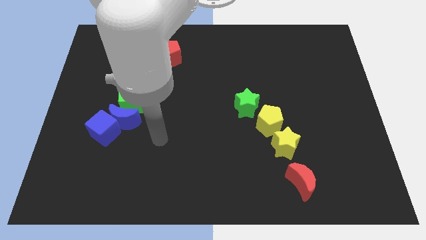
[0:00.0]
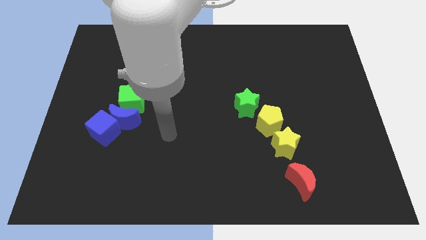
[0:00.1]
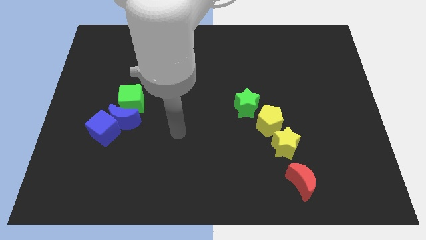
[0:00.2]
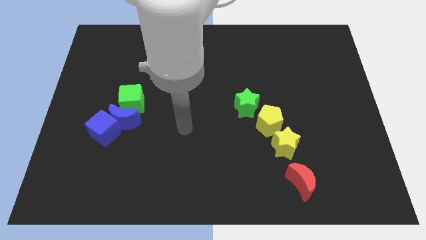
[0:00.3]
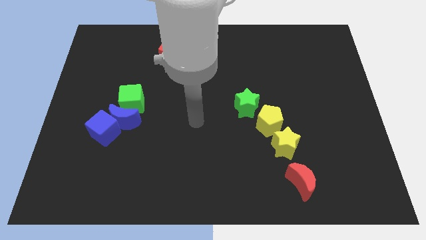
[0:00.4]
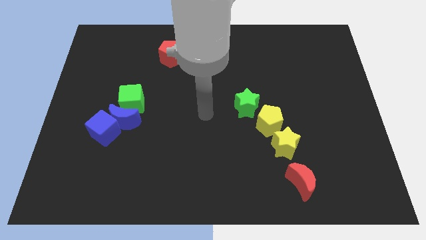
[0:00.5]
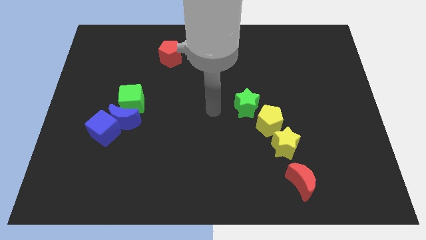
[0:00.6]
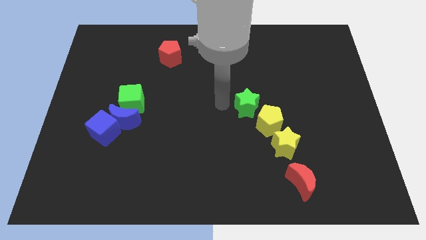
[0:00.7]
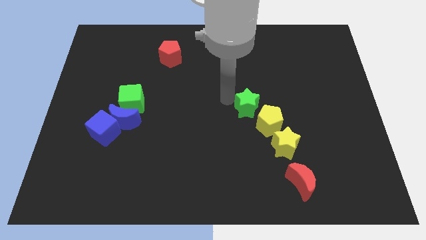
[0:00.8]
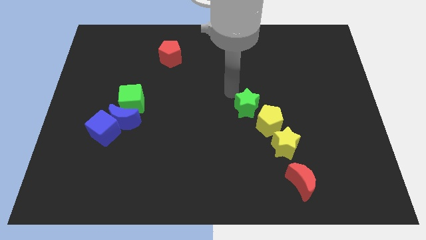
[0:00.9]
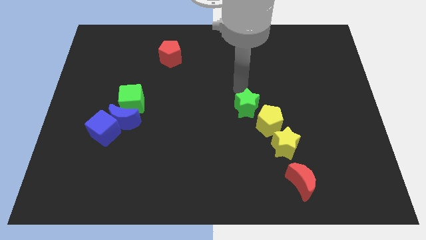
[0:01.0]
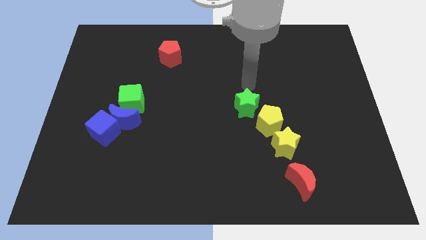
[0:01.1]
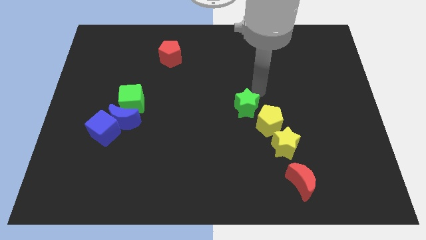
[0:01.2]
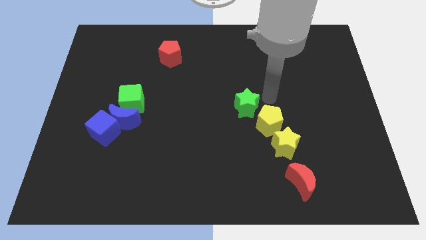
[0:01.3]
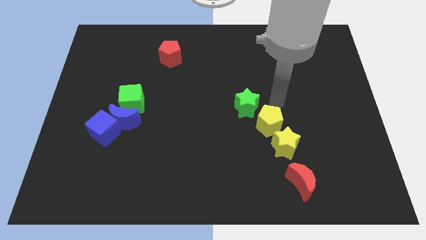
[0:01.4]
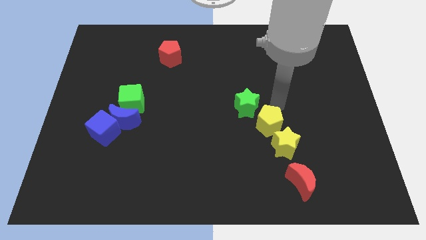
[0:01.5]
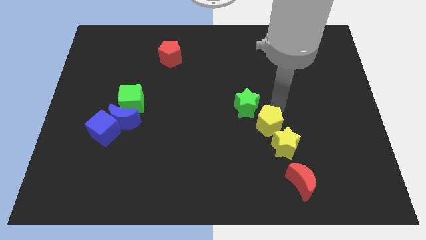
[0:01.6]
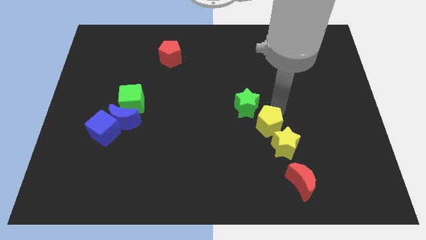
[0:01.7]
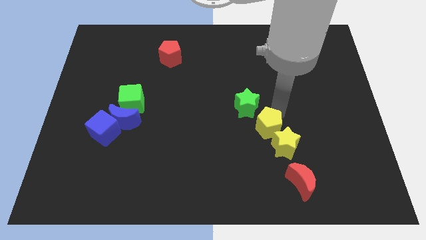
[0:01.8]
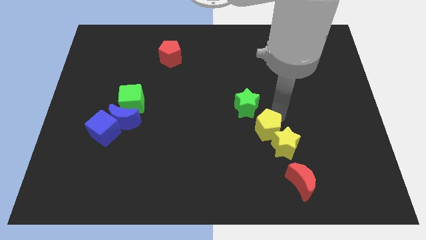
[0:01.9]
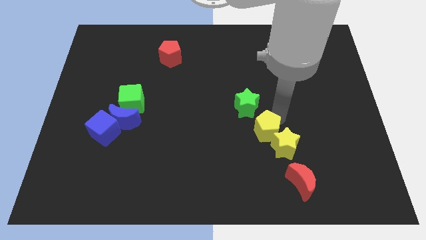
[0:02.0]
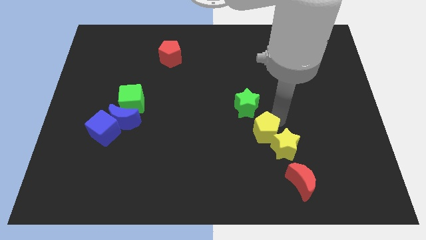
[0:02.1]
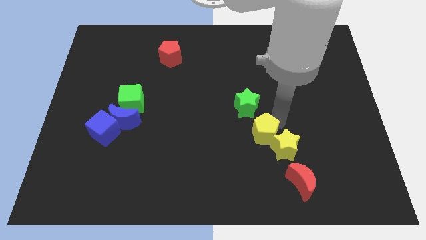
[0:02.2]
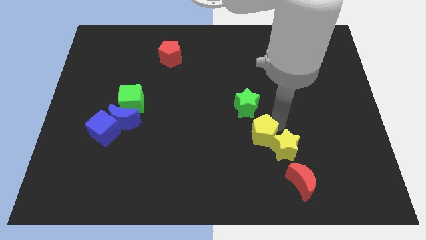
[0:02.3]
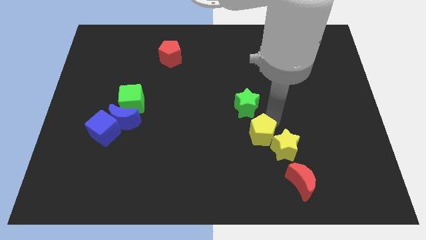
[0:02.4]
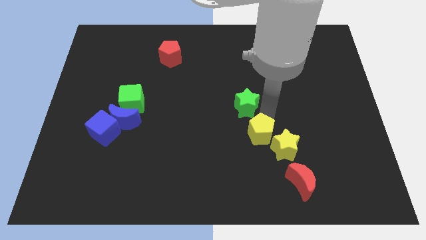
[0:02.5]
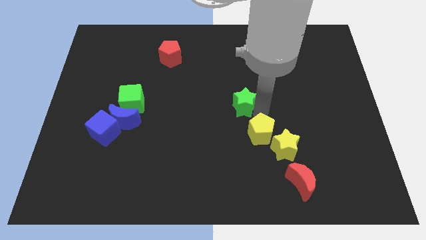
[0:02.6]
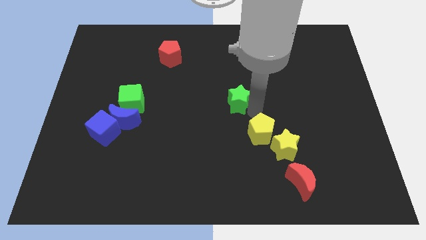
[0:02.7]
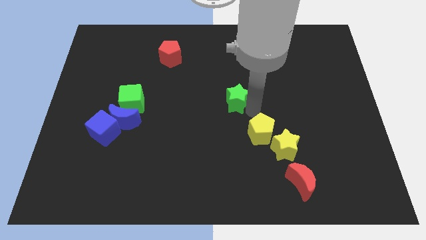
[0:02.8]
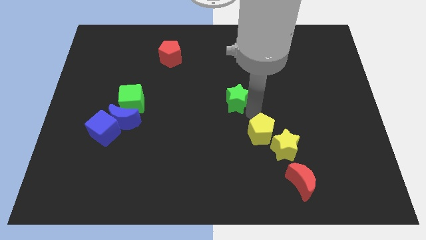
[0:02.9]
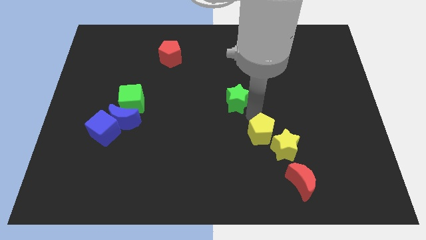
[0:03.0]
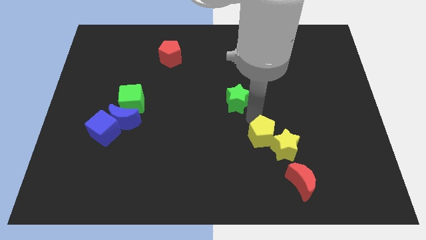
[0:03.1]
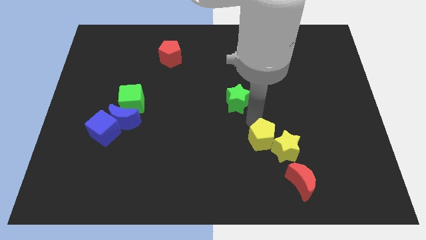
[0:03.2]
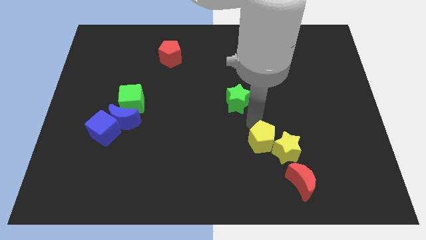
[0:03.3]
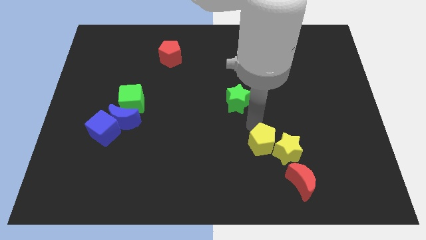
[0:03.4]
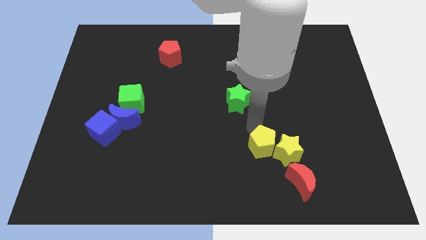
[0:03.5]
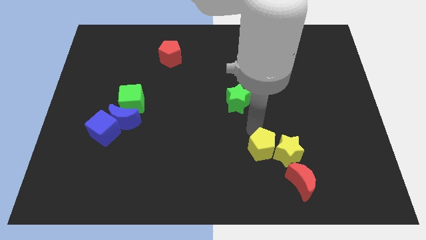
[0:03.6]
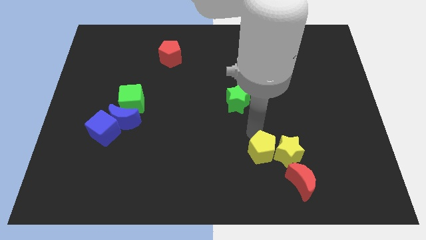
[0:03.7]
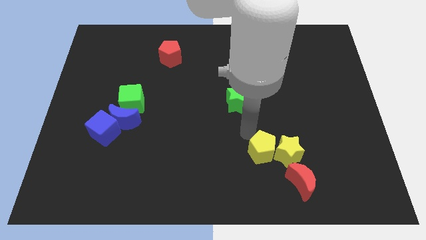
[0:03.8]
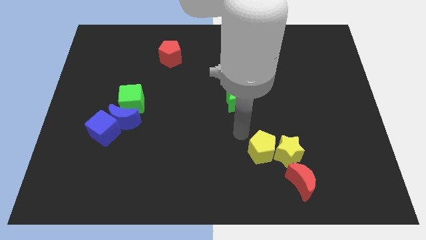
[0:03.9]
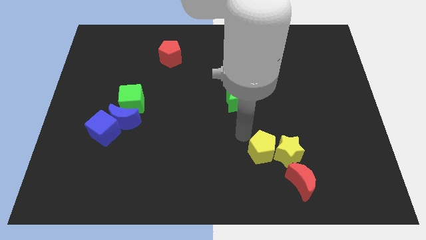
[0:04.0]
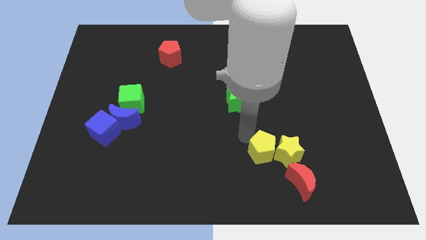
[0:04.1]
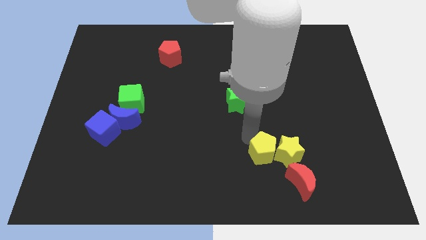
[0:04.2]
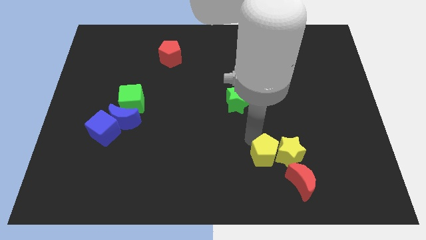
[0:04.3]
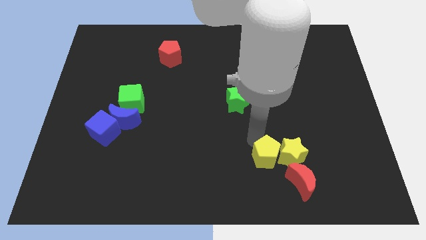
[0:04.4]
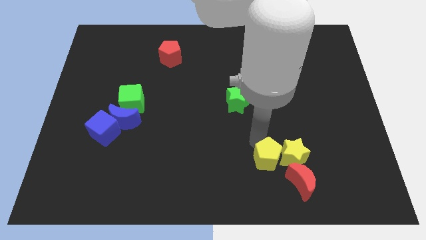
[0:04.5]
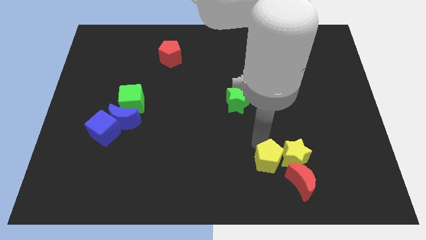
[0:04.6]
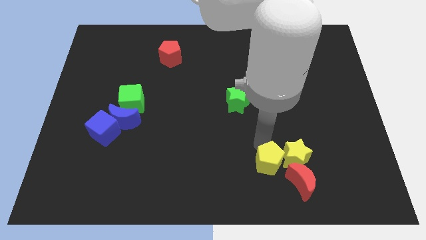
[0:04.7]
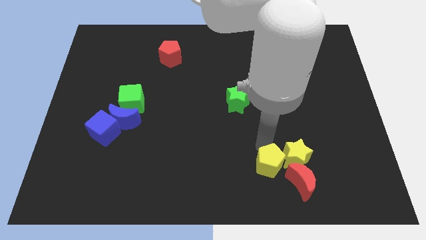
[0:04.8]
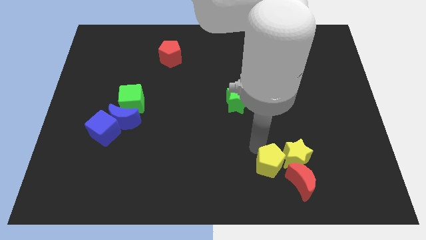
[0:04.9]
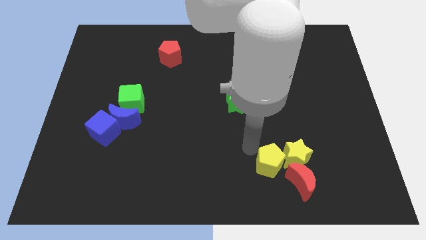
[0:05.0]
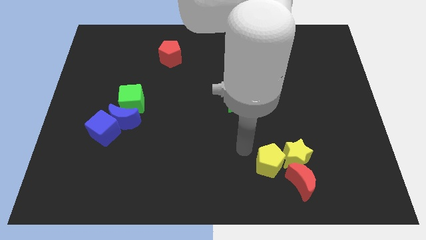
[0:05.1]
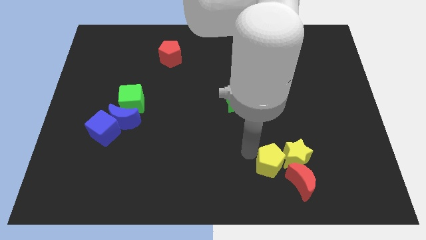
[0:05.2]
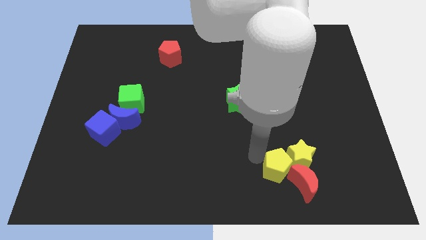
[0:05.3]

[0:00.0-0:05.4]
move the yellow pentagon close to the red moon

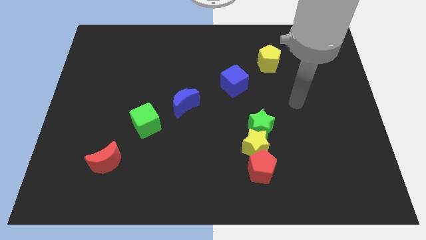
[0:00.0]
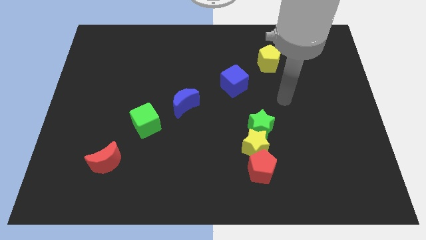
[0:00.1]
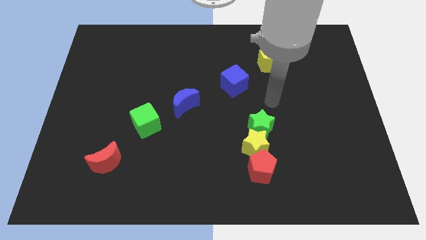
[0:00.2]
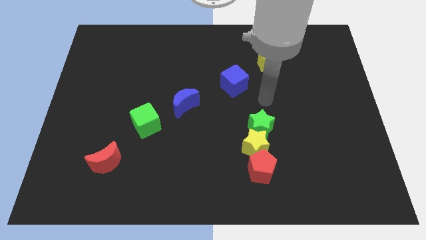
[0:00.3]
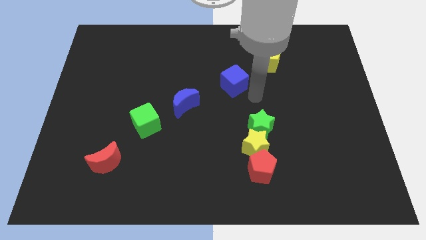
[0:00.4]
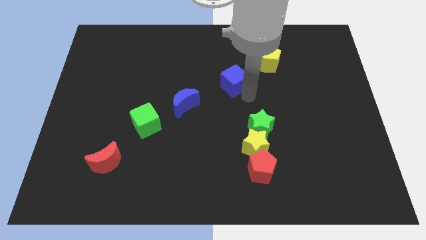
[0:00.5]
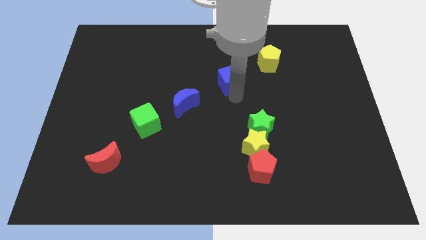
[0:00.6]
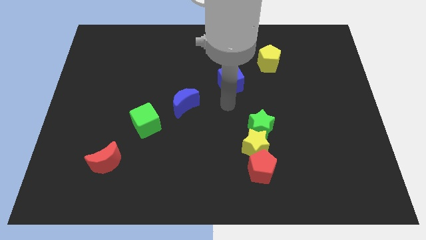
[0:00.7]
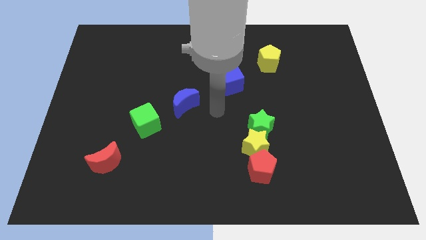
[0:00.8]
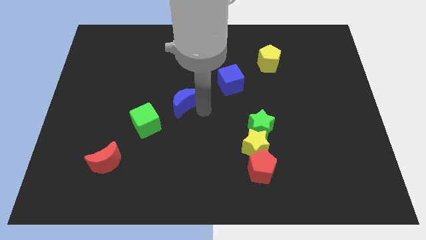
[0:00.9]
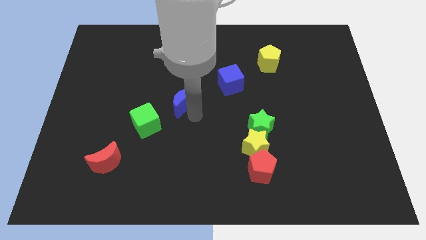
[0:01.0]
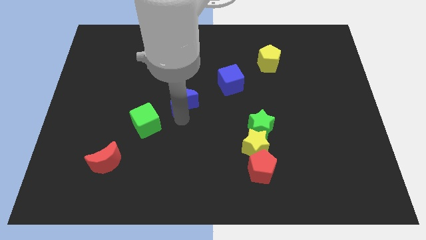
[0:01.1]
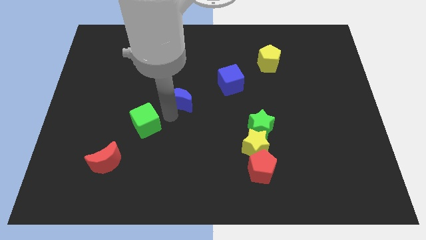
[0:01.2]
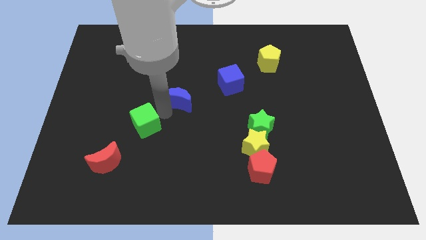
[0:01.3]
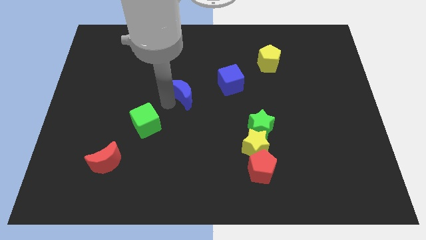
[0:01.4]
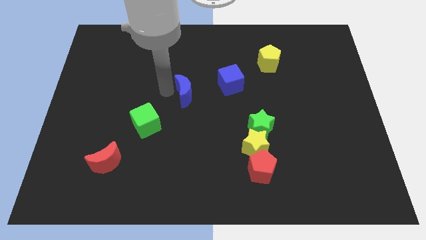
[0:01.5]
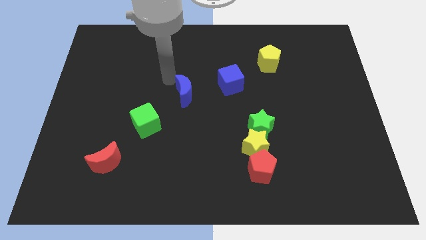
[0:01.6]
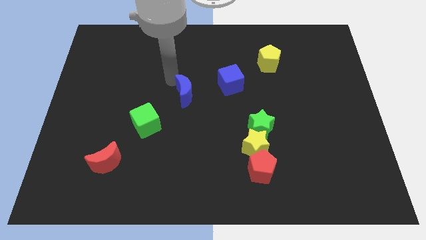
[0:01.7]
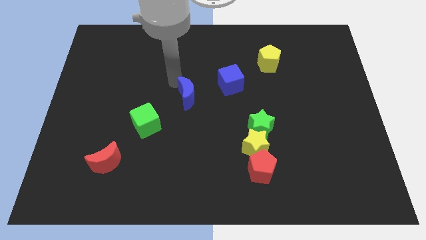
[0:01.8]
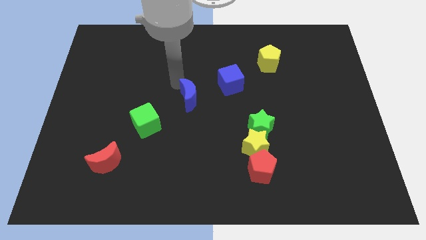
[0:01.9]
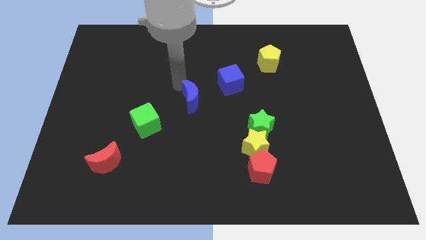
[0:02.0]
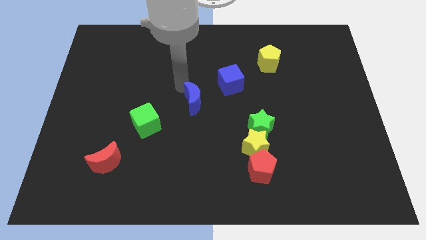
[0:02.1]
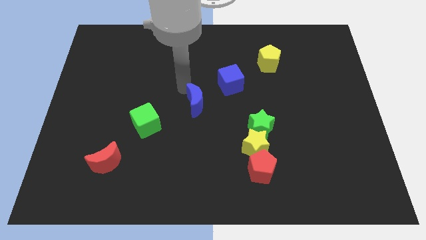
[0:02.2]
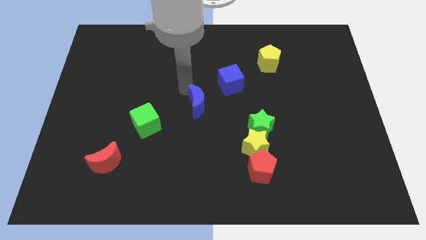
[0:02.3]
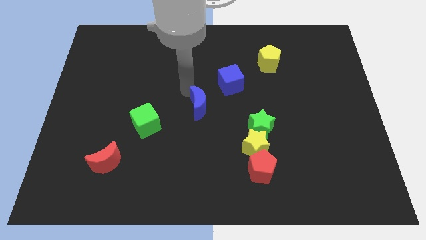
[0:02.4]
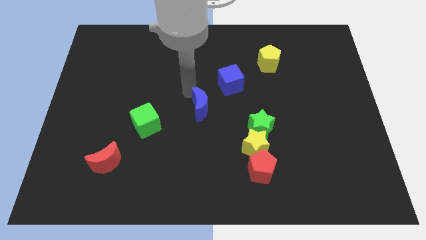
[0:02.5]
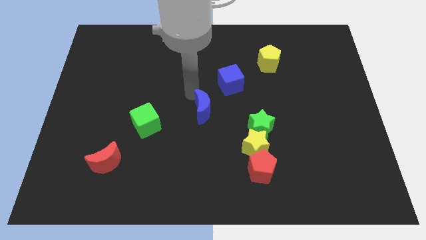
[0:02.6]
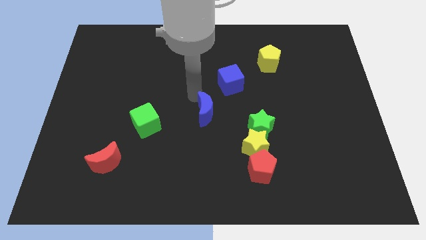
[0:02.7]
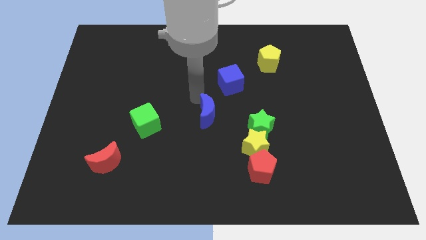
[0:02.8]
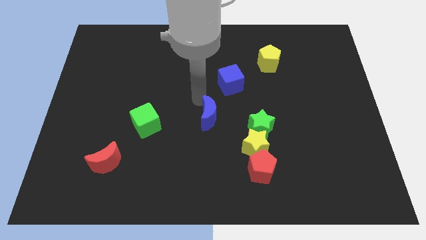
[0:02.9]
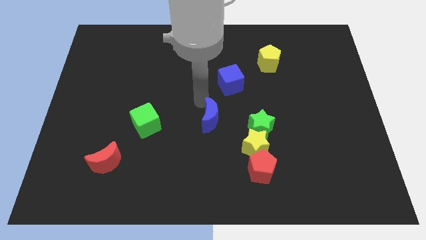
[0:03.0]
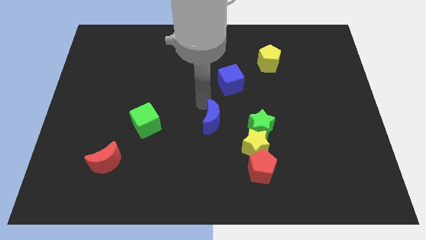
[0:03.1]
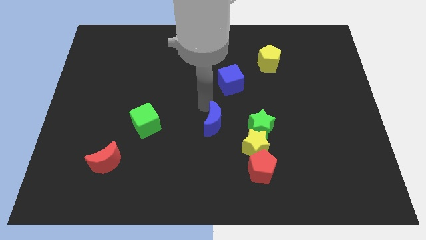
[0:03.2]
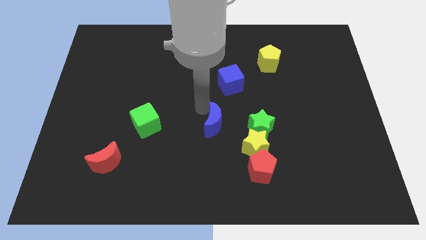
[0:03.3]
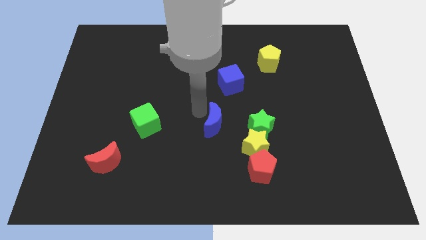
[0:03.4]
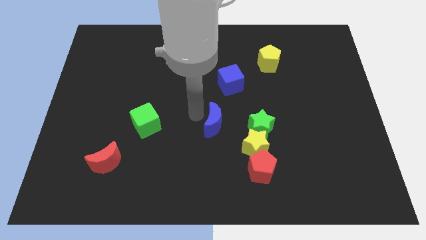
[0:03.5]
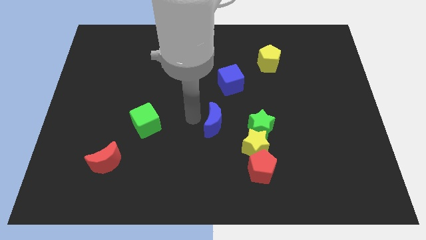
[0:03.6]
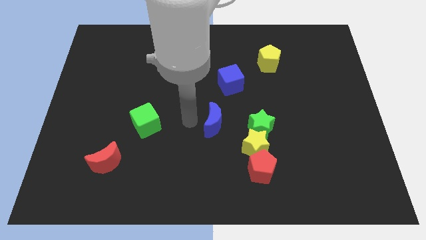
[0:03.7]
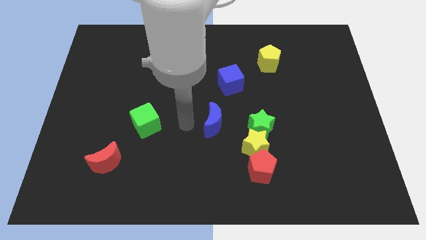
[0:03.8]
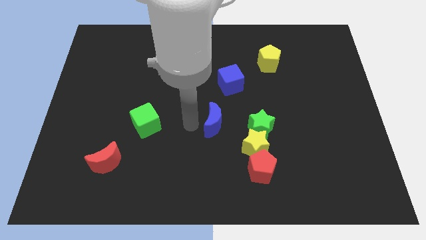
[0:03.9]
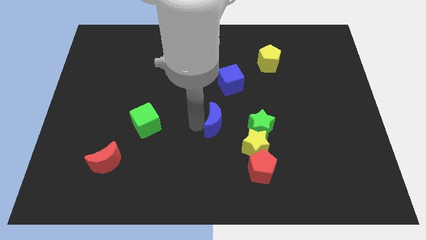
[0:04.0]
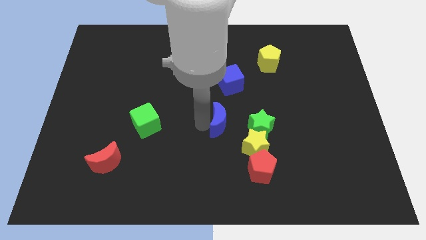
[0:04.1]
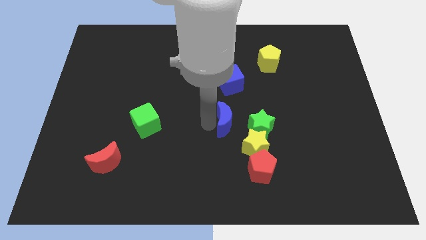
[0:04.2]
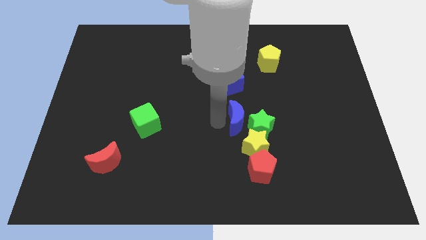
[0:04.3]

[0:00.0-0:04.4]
move the blue moon close to the green star
